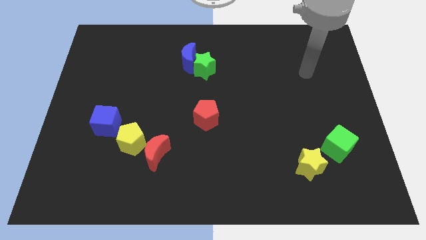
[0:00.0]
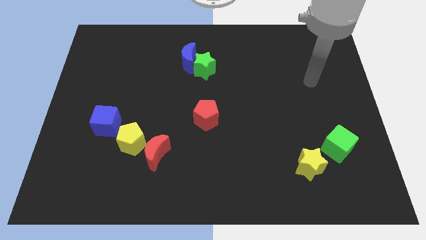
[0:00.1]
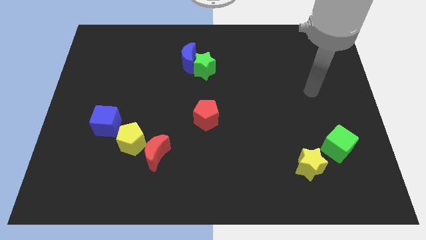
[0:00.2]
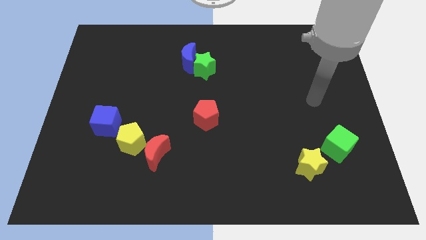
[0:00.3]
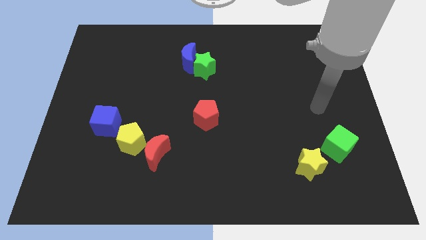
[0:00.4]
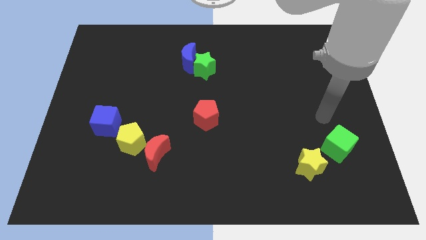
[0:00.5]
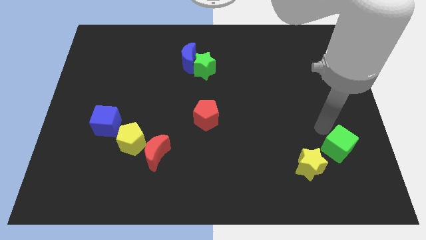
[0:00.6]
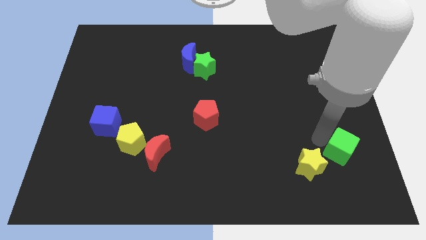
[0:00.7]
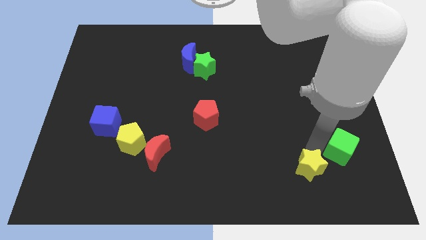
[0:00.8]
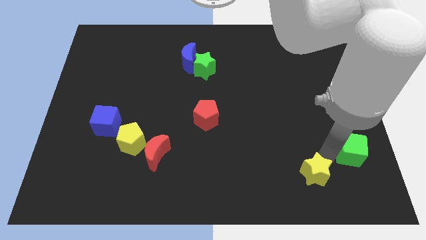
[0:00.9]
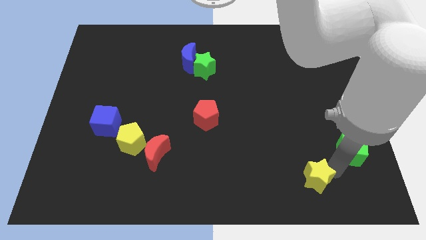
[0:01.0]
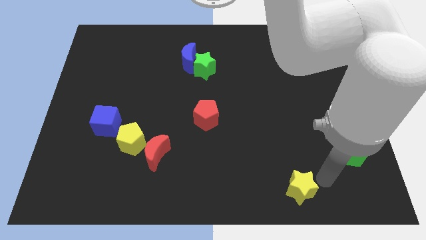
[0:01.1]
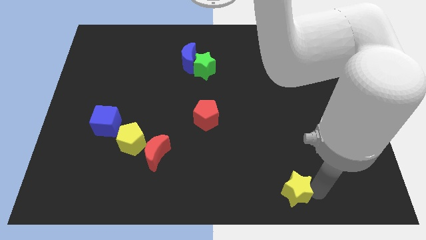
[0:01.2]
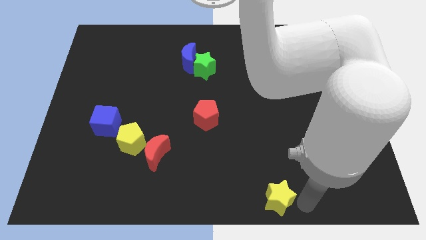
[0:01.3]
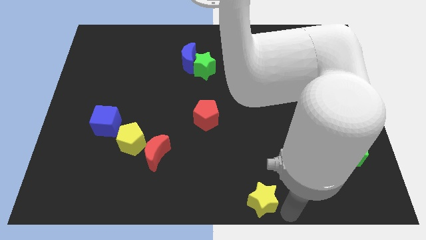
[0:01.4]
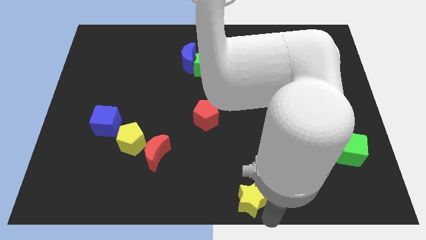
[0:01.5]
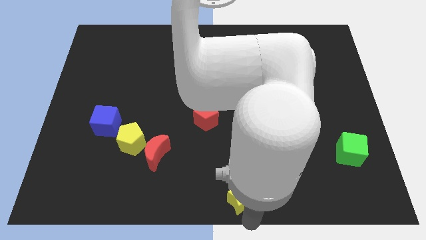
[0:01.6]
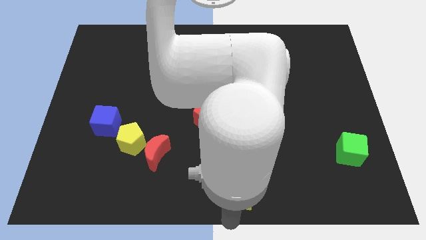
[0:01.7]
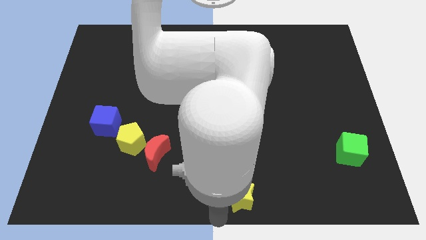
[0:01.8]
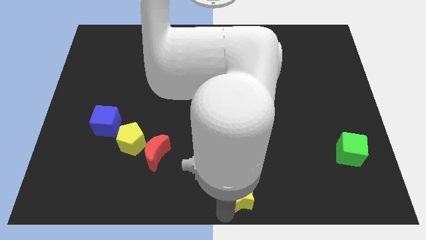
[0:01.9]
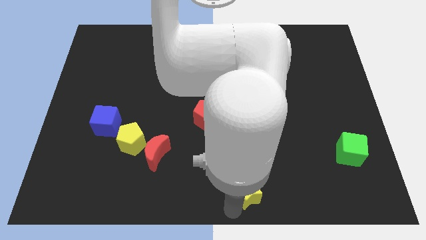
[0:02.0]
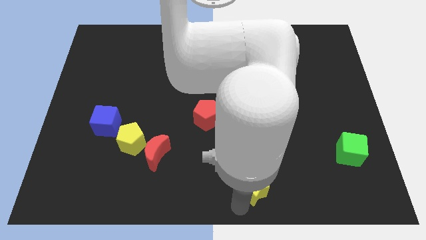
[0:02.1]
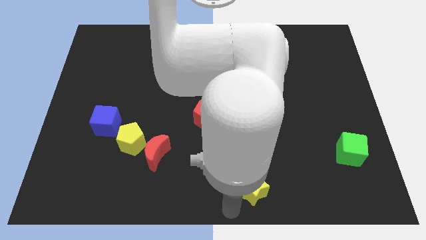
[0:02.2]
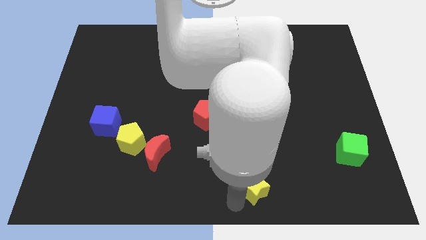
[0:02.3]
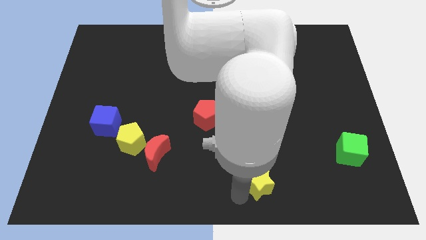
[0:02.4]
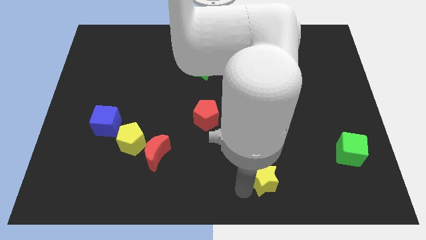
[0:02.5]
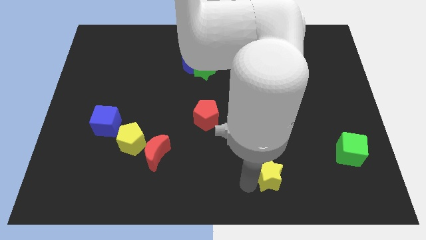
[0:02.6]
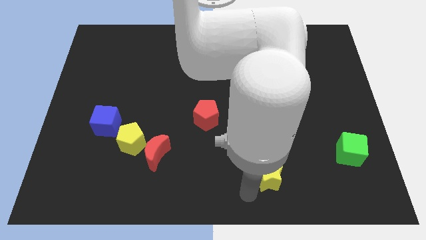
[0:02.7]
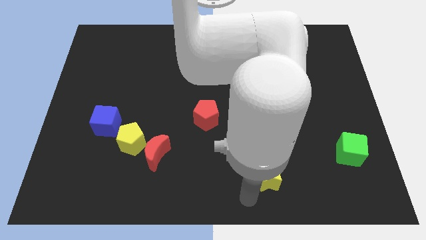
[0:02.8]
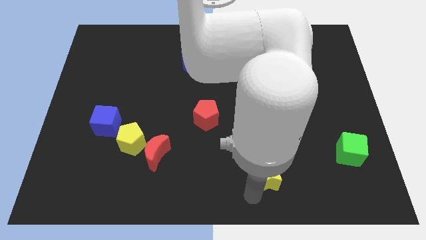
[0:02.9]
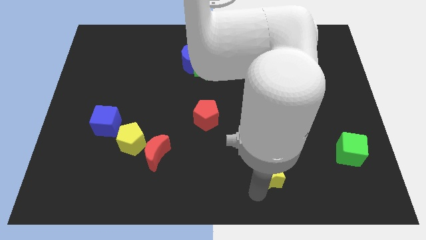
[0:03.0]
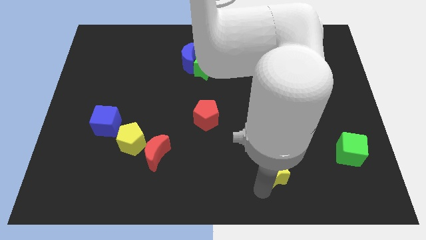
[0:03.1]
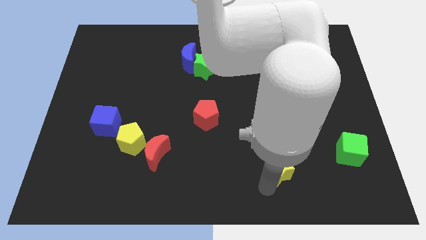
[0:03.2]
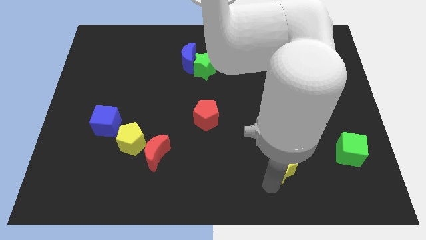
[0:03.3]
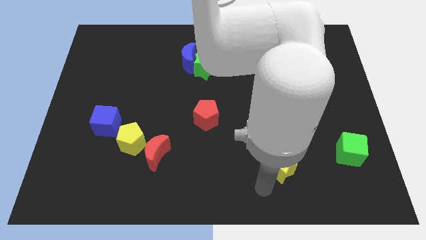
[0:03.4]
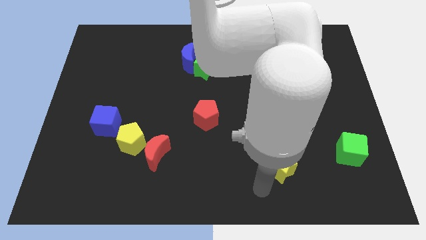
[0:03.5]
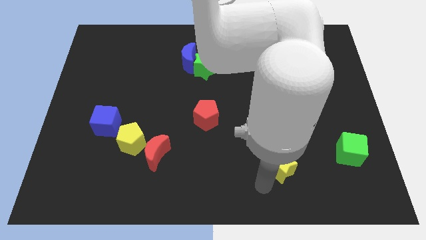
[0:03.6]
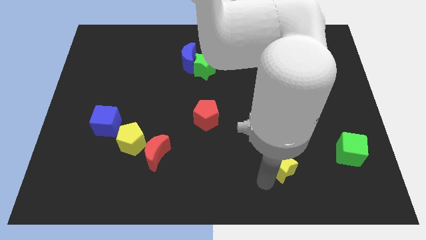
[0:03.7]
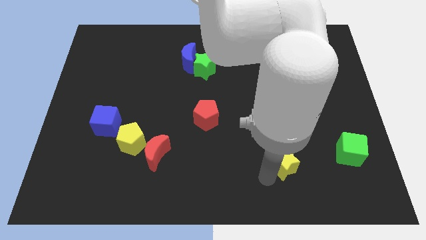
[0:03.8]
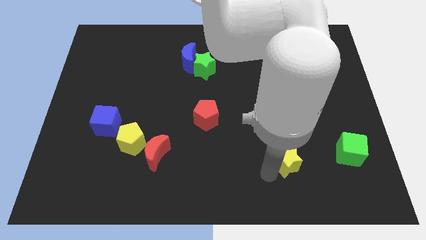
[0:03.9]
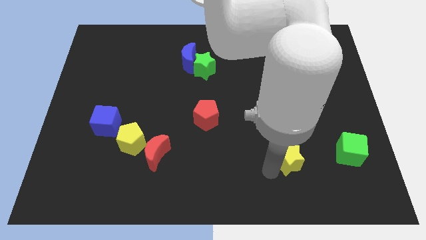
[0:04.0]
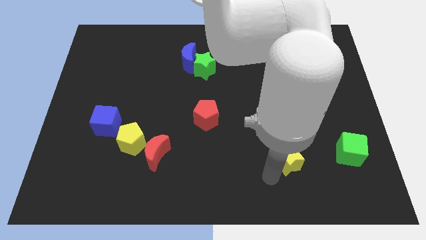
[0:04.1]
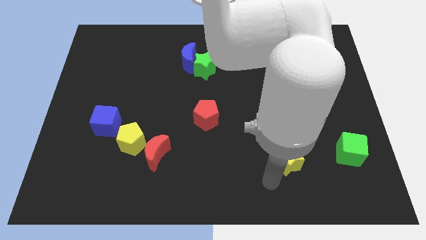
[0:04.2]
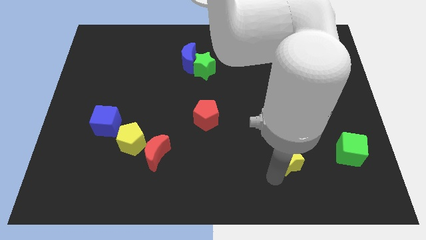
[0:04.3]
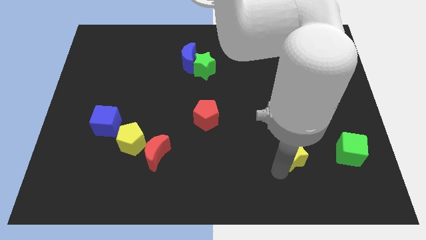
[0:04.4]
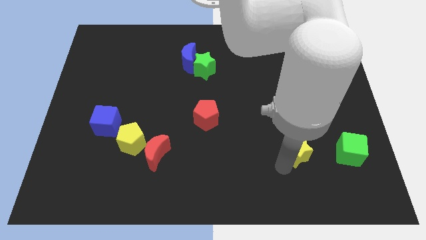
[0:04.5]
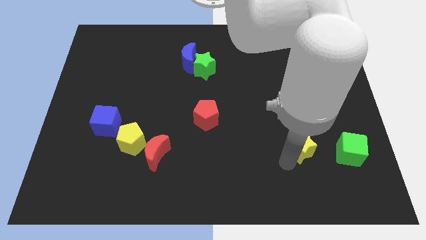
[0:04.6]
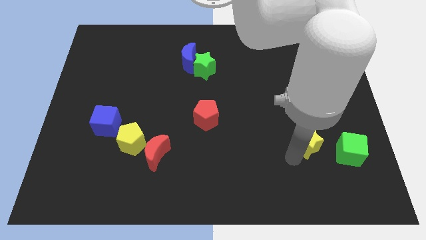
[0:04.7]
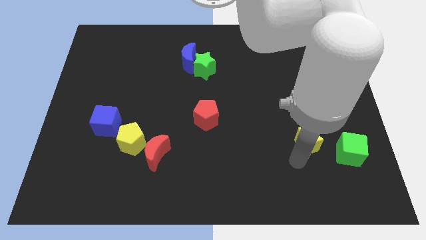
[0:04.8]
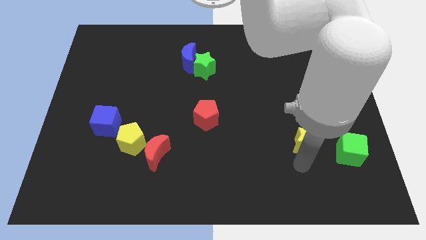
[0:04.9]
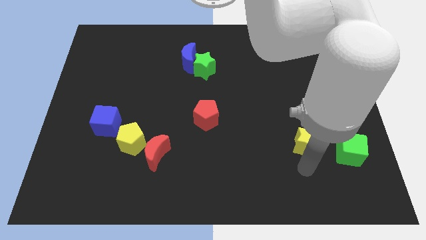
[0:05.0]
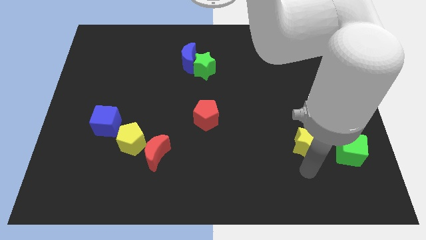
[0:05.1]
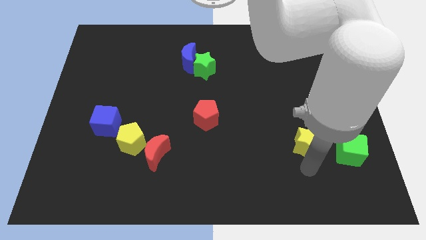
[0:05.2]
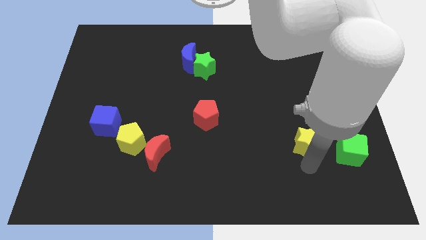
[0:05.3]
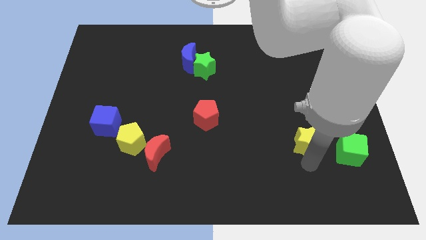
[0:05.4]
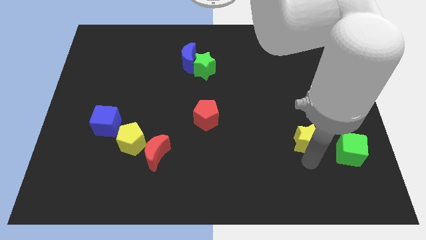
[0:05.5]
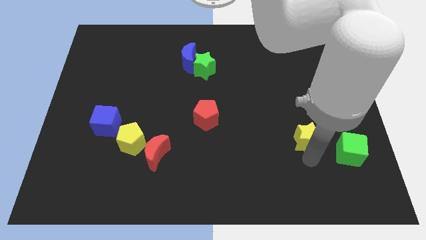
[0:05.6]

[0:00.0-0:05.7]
move the yellow star upwards somewhat

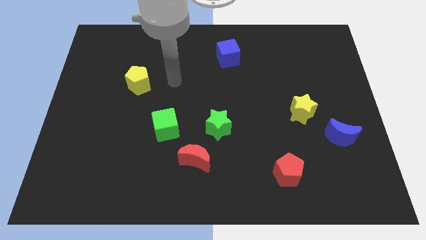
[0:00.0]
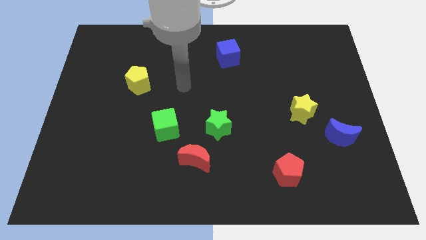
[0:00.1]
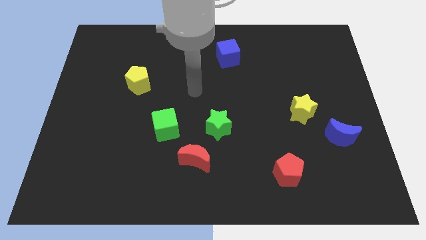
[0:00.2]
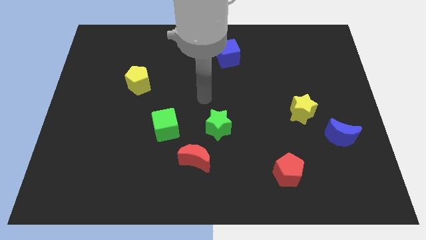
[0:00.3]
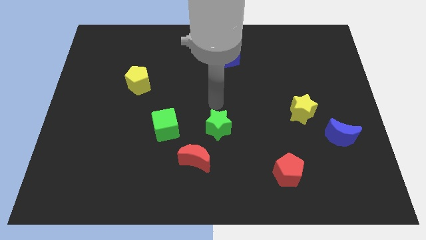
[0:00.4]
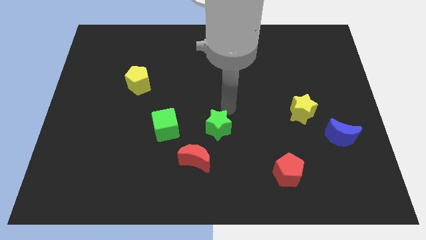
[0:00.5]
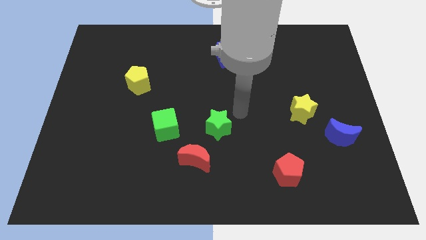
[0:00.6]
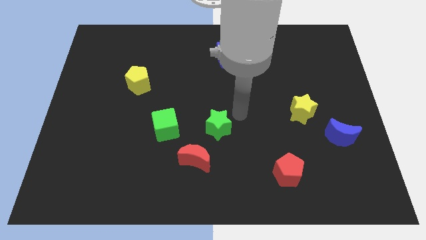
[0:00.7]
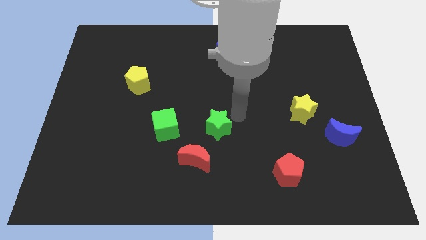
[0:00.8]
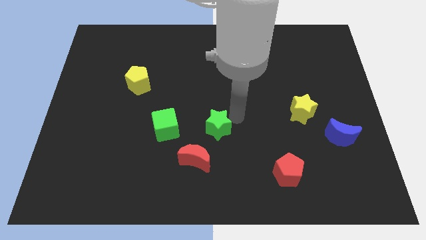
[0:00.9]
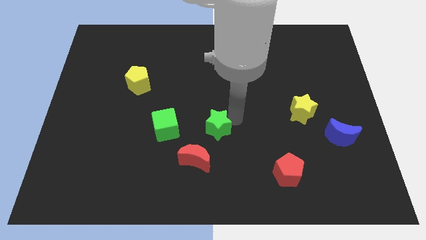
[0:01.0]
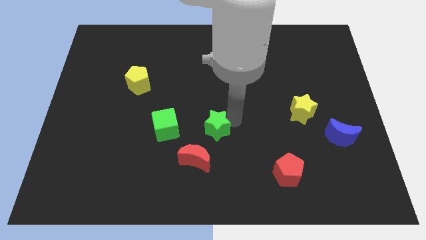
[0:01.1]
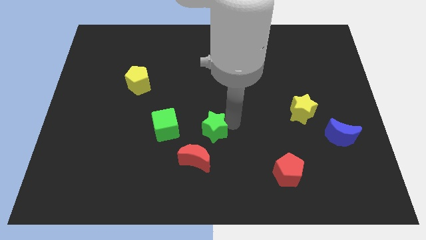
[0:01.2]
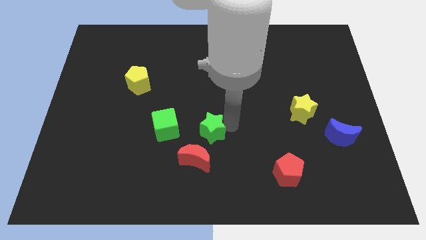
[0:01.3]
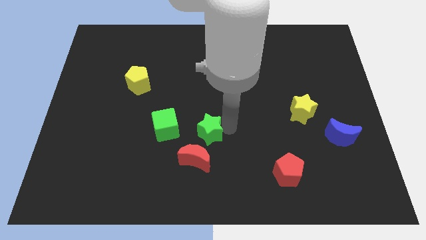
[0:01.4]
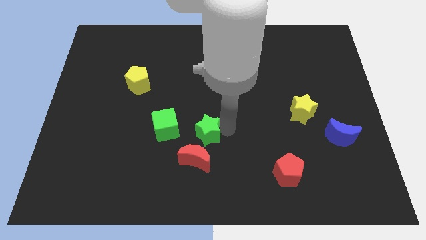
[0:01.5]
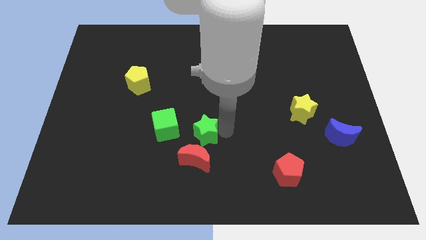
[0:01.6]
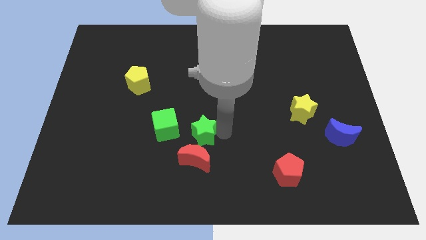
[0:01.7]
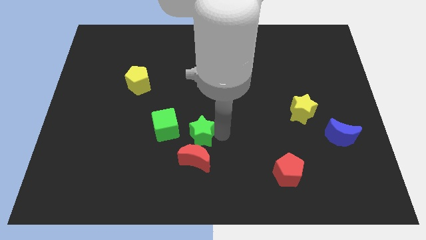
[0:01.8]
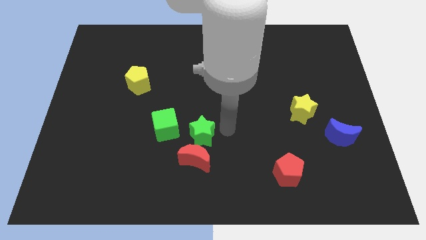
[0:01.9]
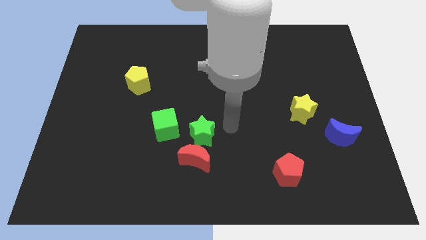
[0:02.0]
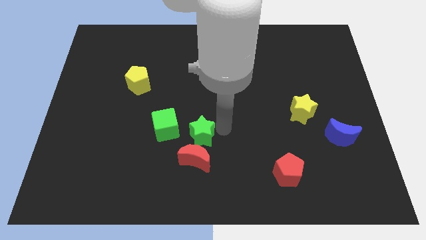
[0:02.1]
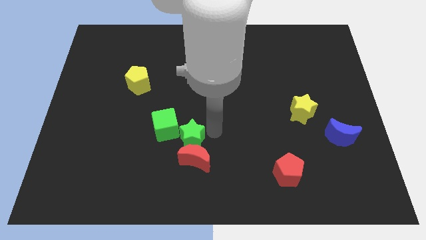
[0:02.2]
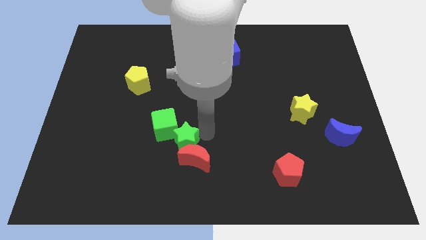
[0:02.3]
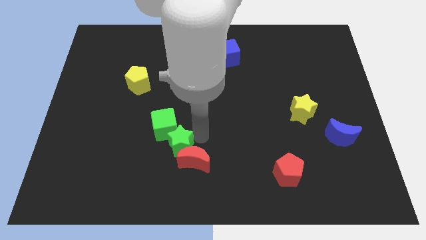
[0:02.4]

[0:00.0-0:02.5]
push the green star left a little bit
